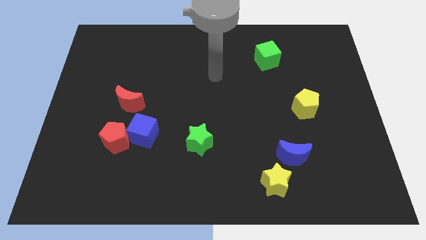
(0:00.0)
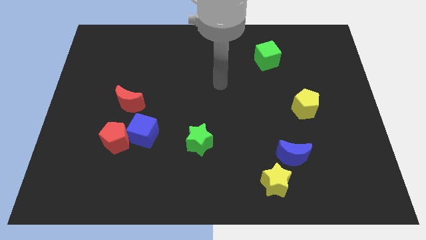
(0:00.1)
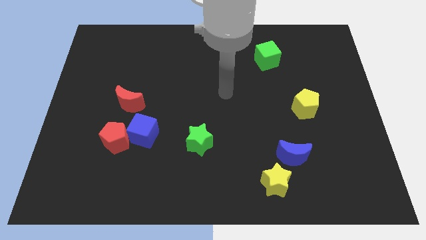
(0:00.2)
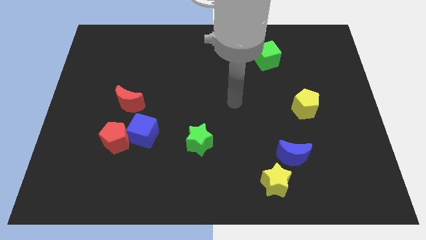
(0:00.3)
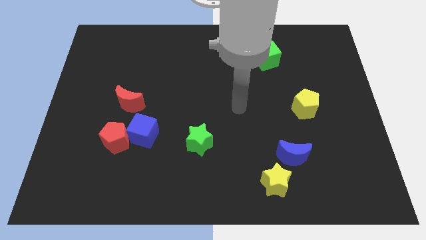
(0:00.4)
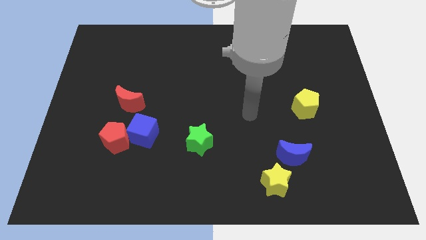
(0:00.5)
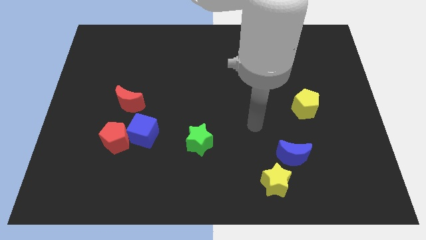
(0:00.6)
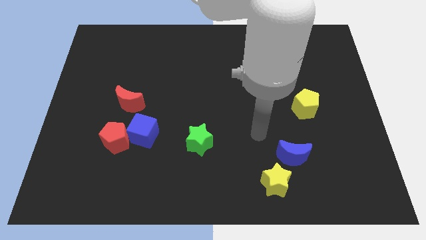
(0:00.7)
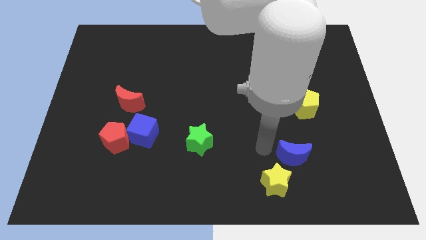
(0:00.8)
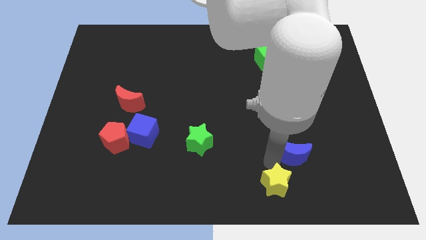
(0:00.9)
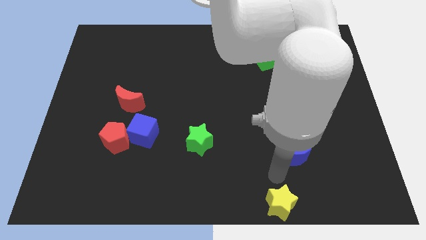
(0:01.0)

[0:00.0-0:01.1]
separate the blue moon from the yellow star

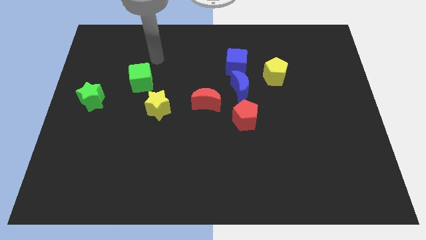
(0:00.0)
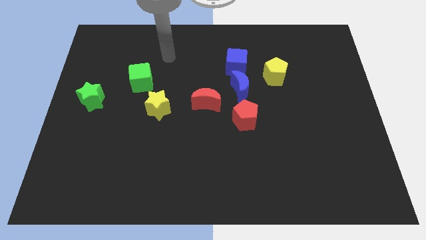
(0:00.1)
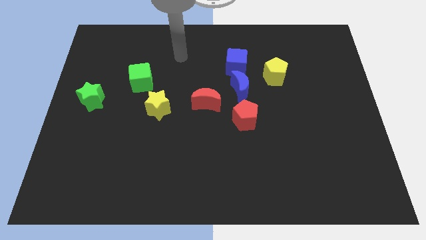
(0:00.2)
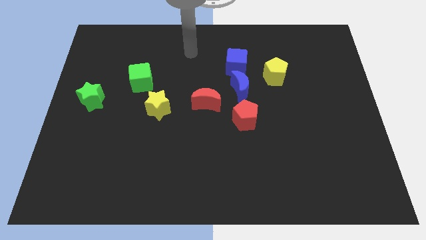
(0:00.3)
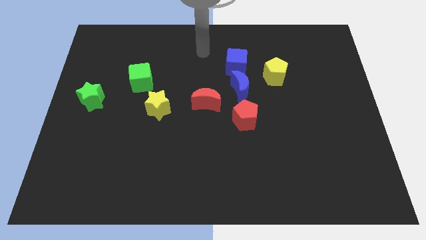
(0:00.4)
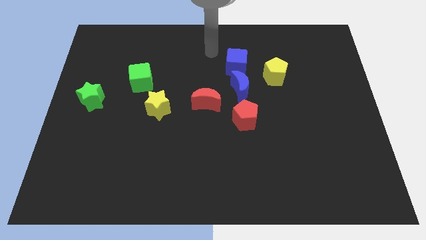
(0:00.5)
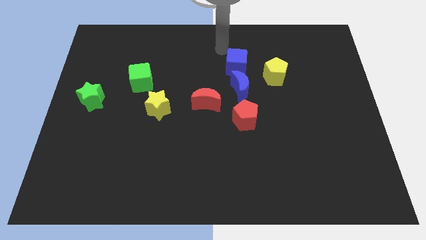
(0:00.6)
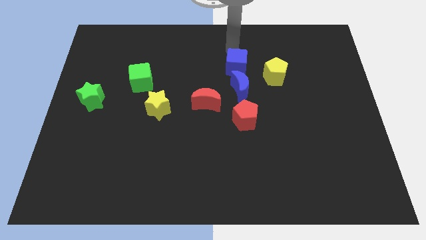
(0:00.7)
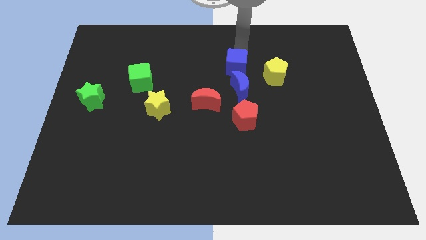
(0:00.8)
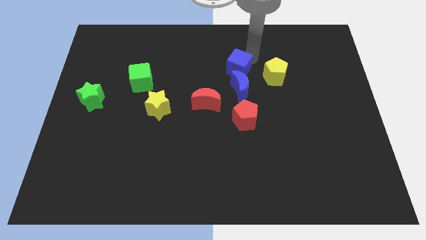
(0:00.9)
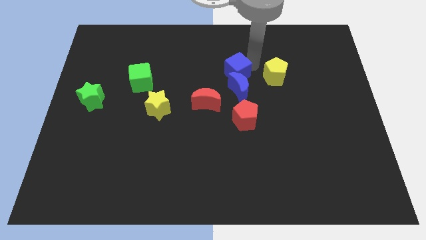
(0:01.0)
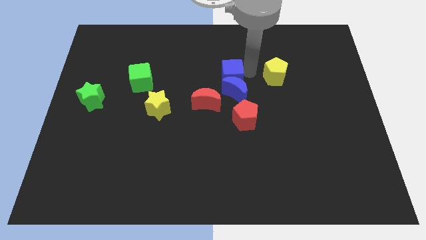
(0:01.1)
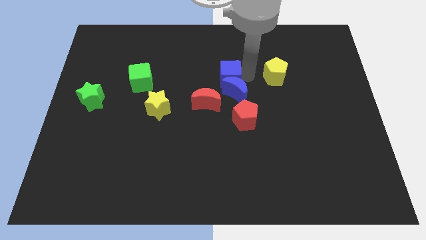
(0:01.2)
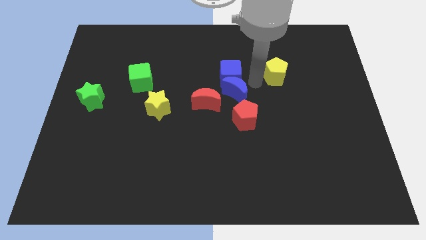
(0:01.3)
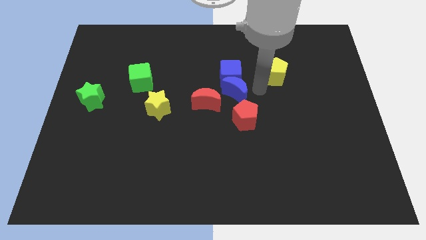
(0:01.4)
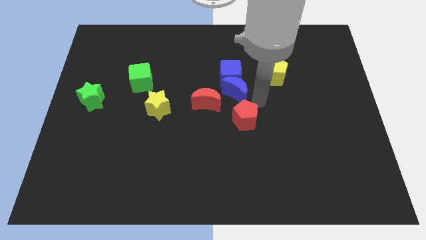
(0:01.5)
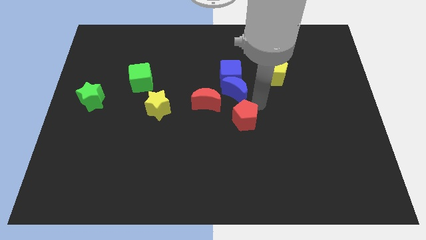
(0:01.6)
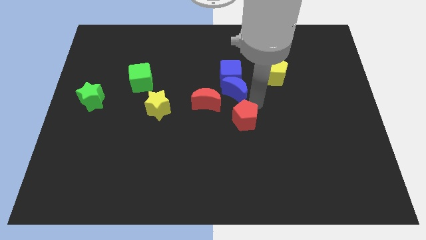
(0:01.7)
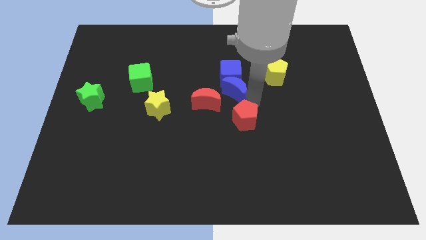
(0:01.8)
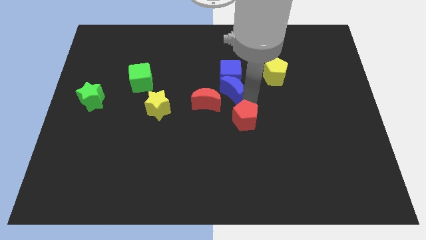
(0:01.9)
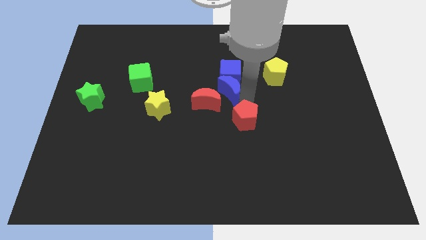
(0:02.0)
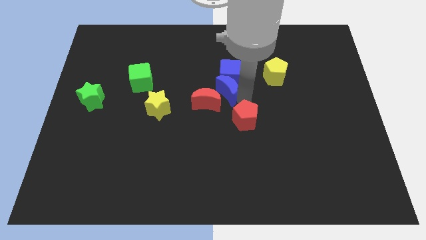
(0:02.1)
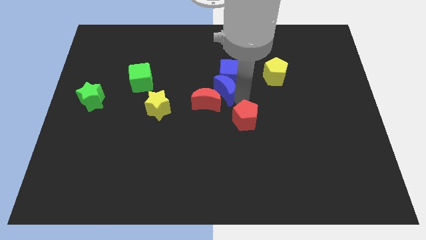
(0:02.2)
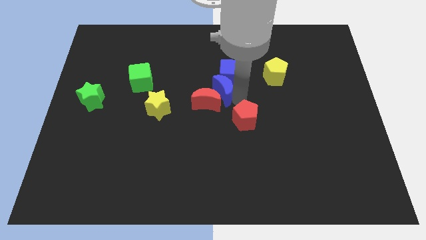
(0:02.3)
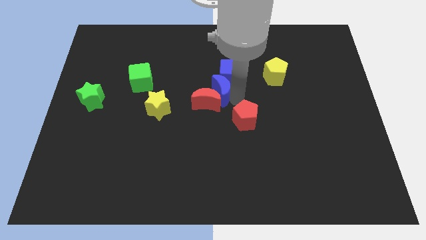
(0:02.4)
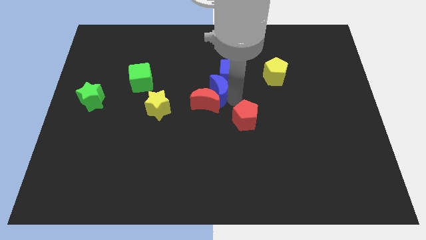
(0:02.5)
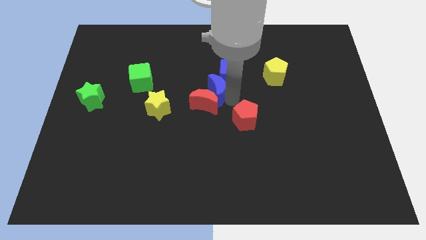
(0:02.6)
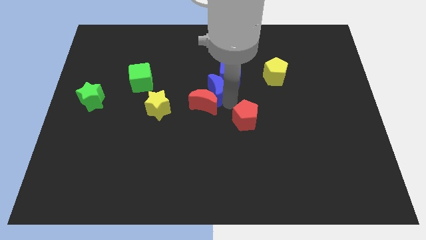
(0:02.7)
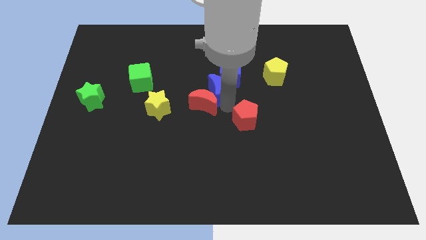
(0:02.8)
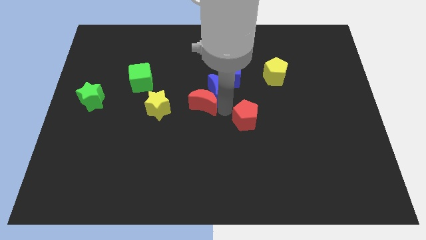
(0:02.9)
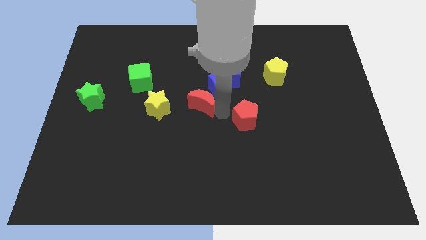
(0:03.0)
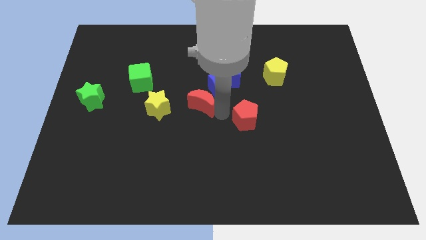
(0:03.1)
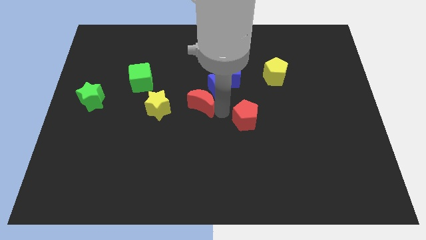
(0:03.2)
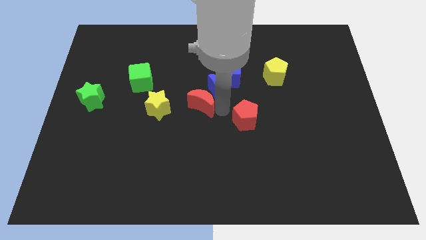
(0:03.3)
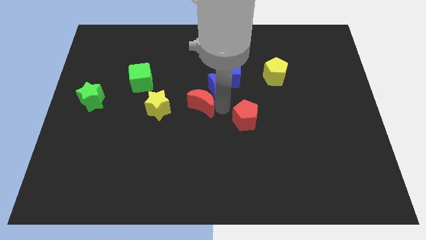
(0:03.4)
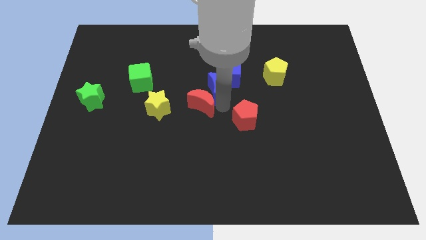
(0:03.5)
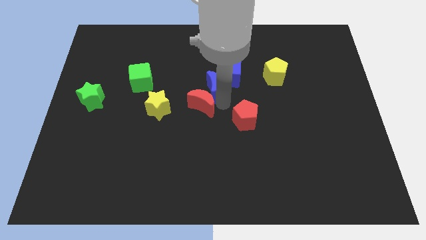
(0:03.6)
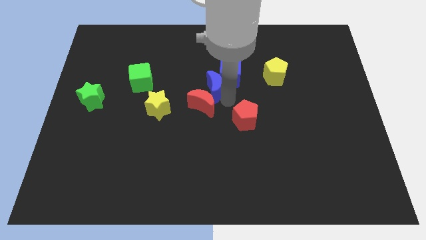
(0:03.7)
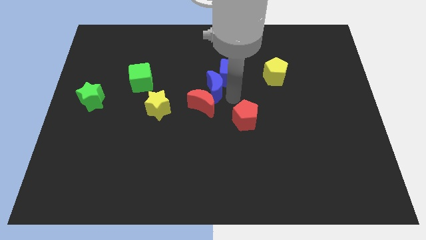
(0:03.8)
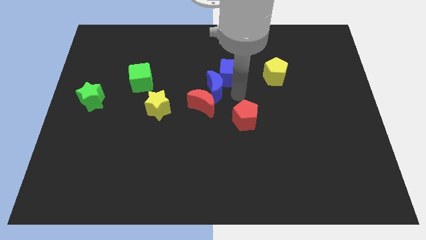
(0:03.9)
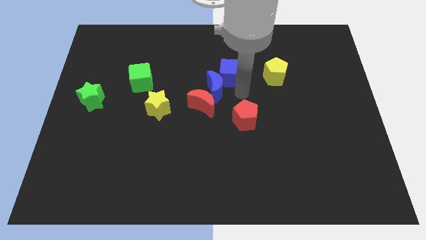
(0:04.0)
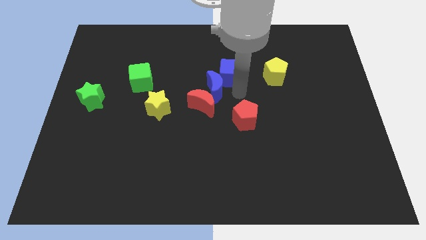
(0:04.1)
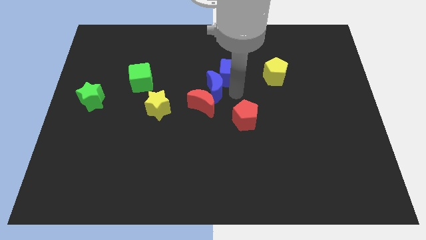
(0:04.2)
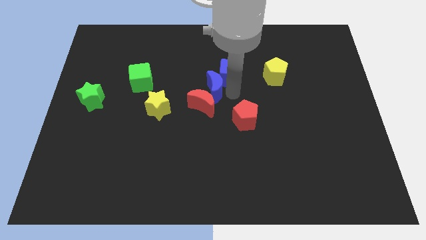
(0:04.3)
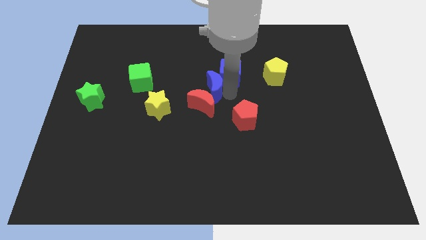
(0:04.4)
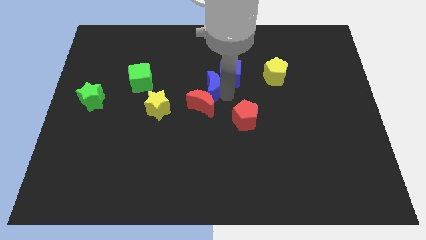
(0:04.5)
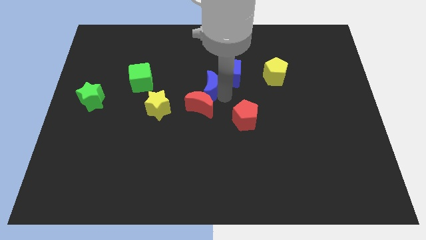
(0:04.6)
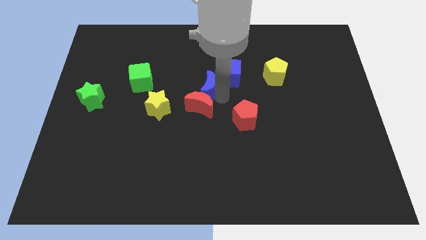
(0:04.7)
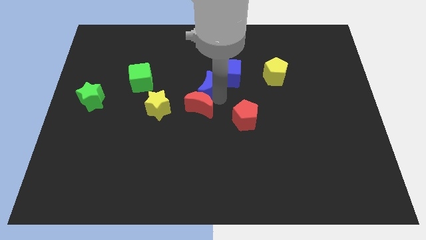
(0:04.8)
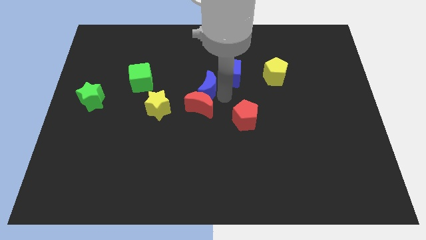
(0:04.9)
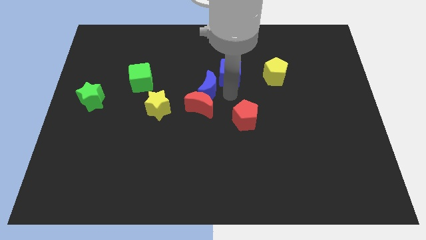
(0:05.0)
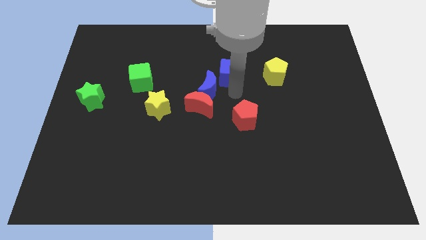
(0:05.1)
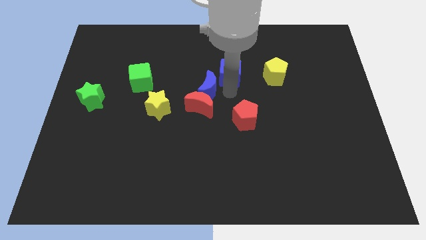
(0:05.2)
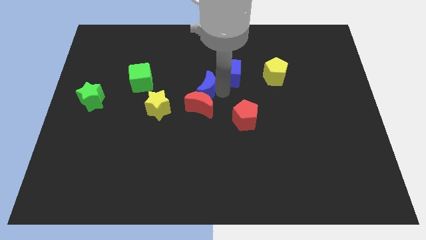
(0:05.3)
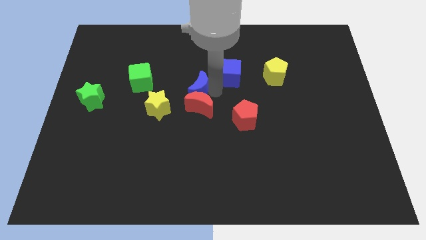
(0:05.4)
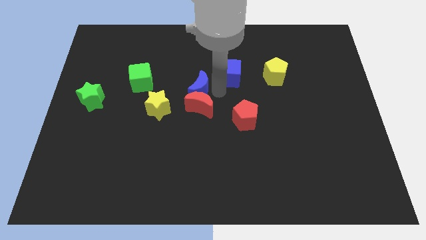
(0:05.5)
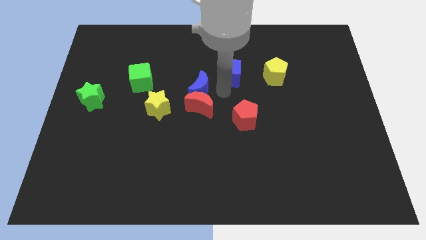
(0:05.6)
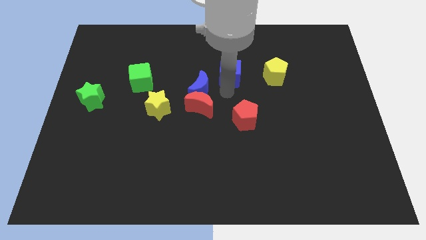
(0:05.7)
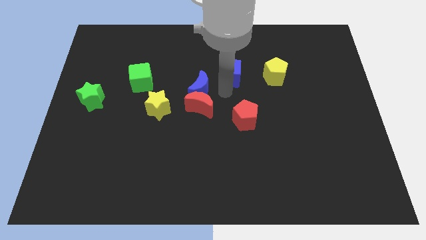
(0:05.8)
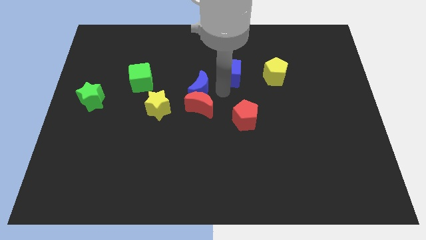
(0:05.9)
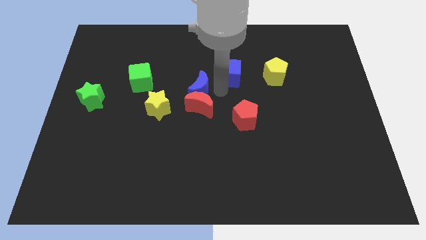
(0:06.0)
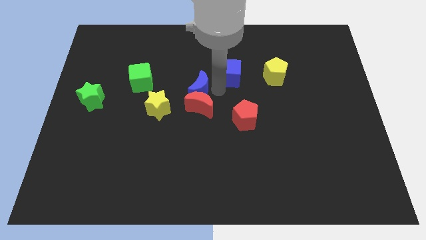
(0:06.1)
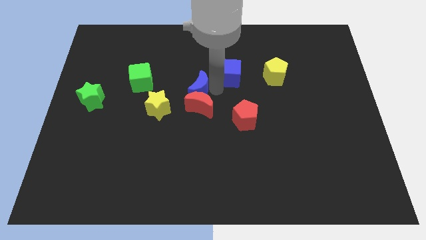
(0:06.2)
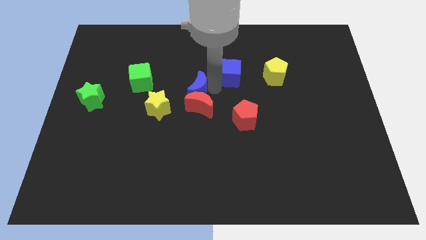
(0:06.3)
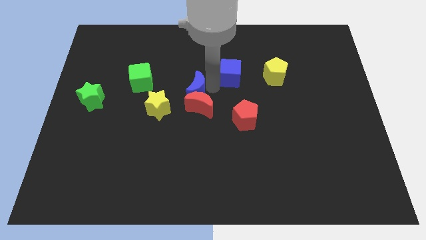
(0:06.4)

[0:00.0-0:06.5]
move the blue moon away from the group

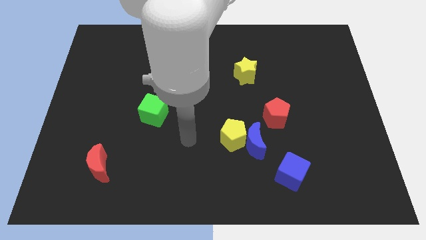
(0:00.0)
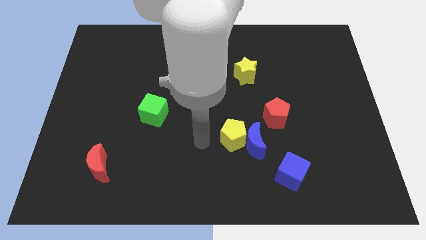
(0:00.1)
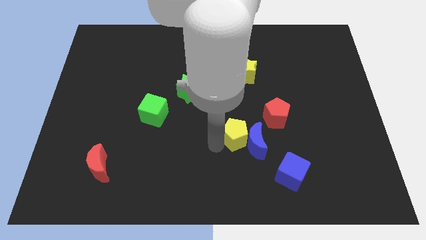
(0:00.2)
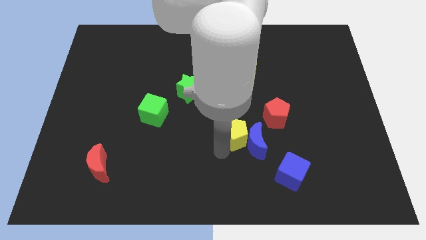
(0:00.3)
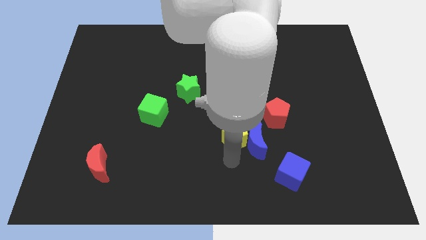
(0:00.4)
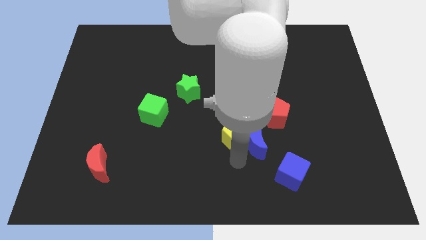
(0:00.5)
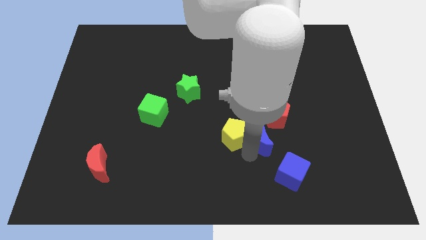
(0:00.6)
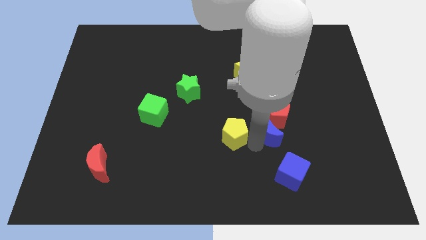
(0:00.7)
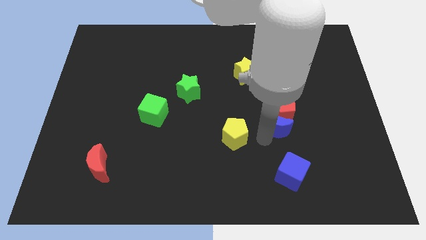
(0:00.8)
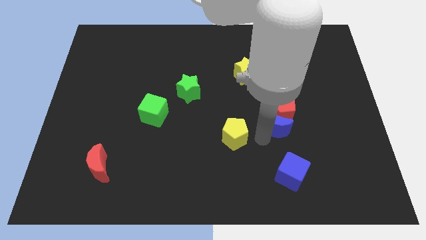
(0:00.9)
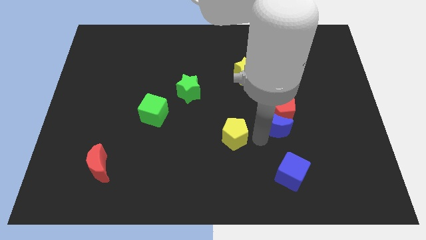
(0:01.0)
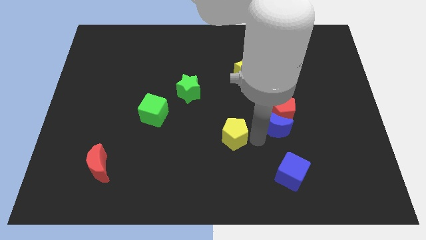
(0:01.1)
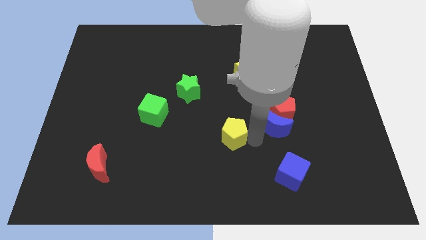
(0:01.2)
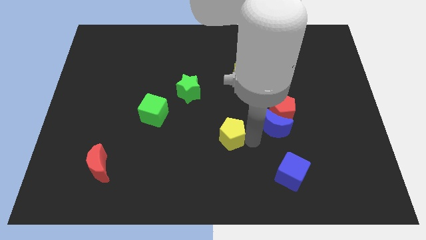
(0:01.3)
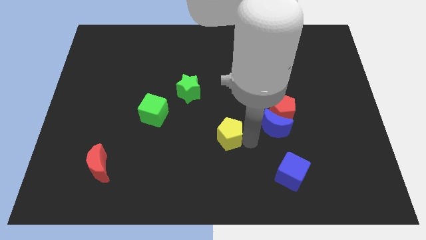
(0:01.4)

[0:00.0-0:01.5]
pull the yellow pentagon apart from the blue moon

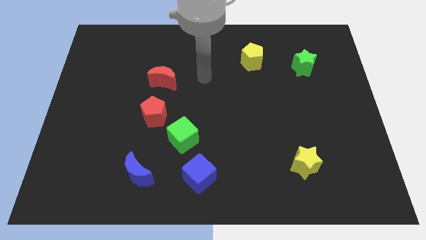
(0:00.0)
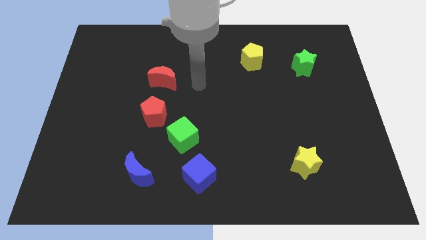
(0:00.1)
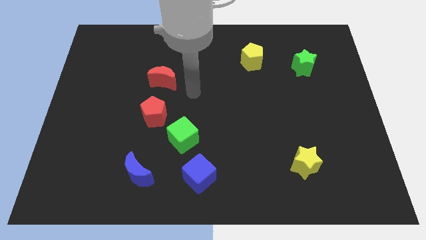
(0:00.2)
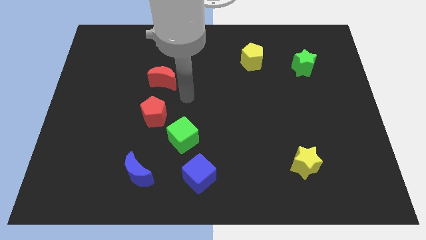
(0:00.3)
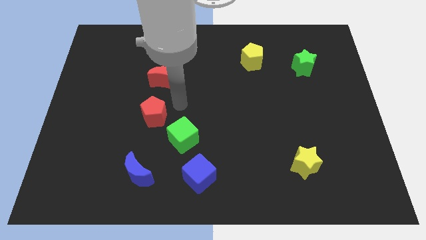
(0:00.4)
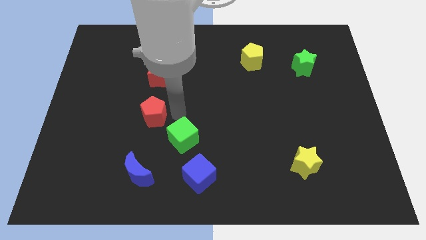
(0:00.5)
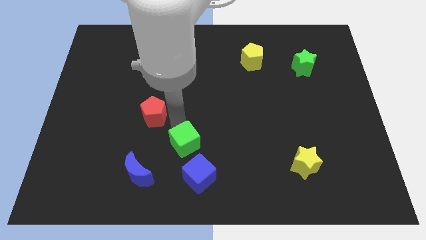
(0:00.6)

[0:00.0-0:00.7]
pull the red pentagon apart from the green cube
